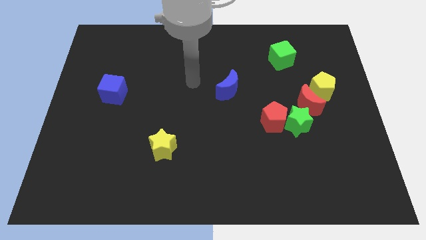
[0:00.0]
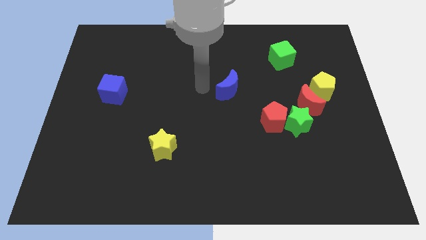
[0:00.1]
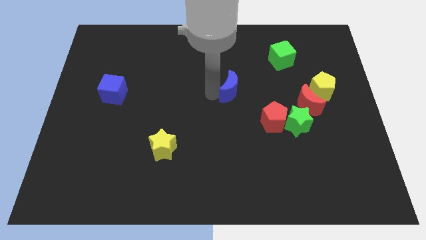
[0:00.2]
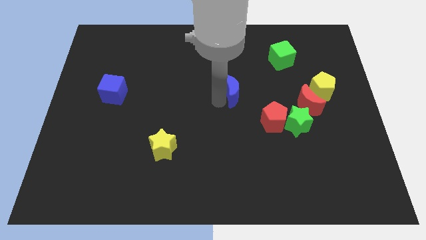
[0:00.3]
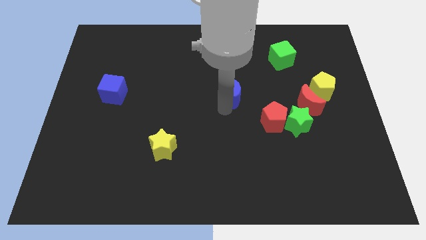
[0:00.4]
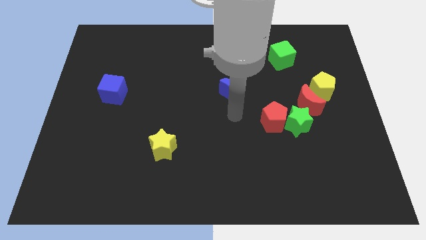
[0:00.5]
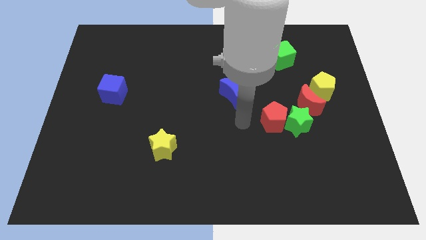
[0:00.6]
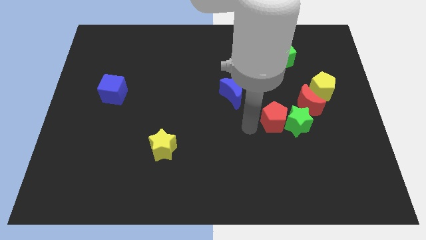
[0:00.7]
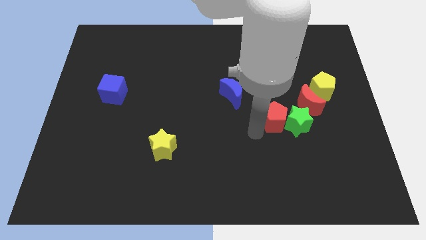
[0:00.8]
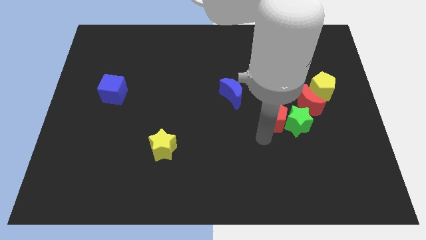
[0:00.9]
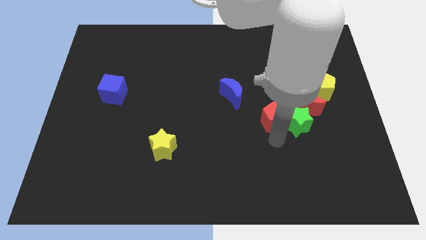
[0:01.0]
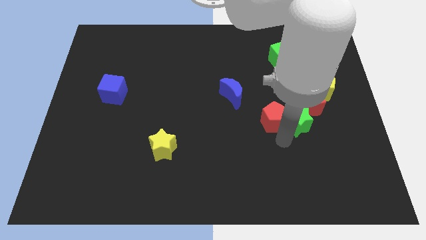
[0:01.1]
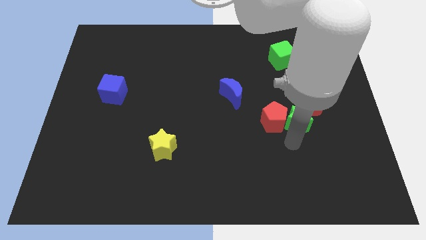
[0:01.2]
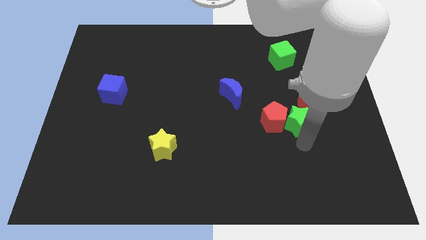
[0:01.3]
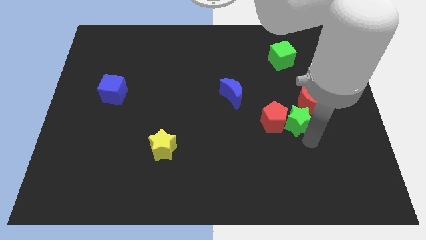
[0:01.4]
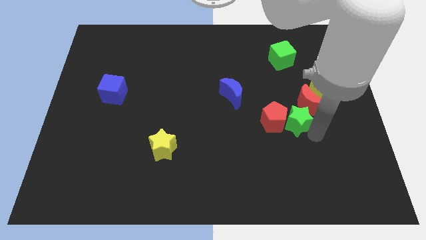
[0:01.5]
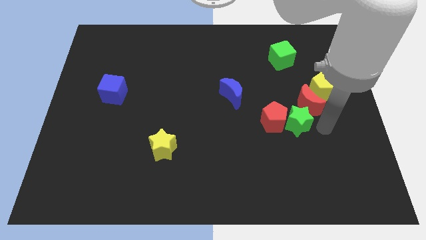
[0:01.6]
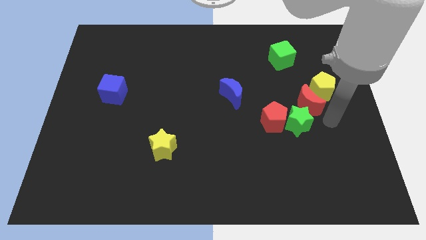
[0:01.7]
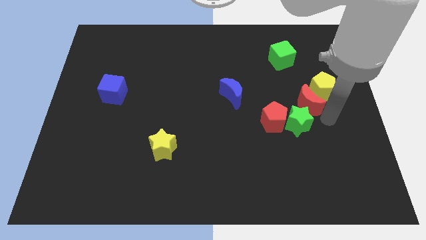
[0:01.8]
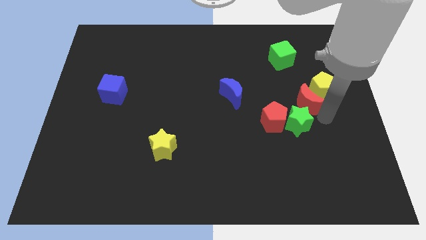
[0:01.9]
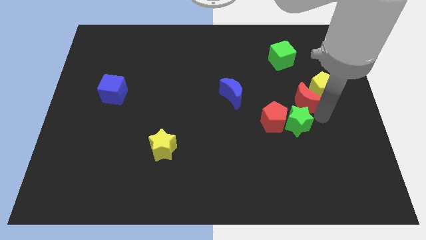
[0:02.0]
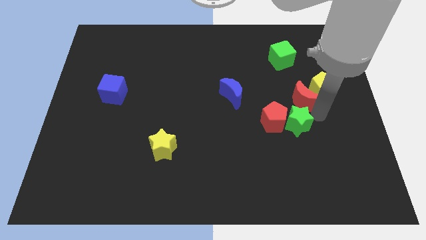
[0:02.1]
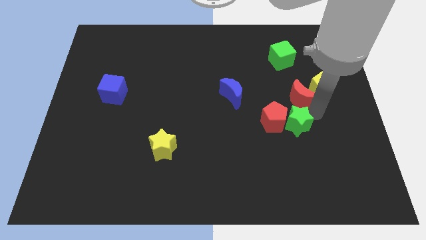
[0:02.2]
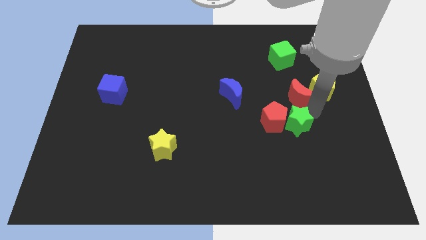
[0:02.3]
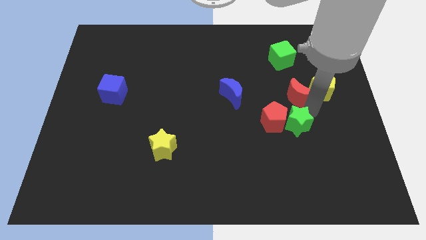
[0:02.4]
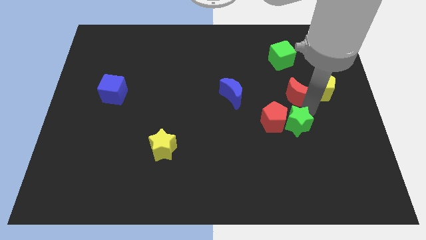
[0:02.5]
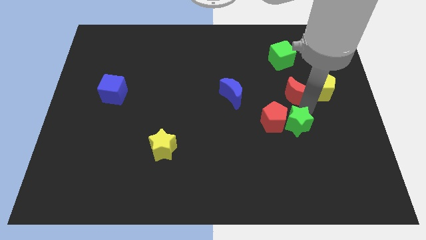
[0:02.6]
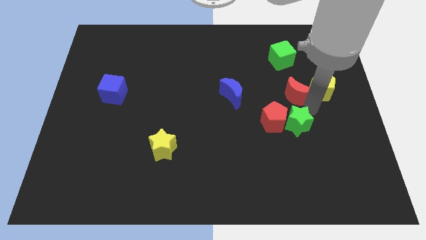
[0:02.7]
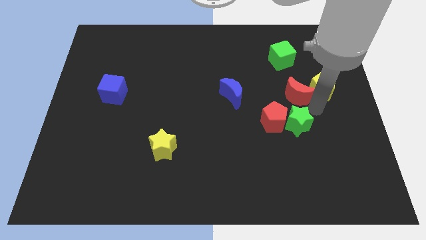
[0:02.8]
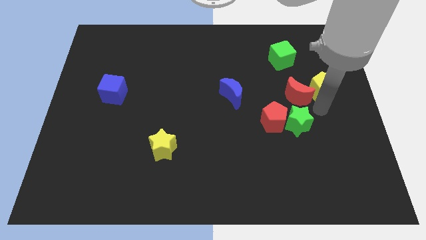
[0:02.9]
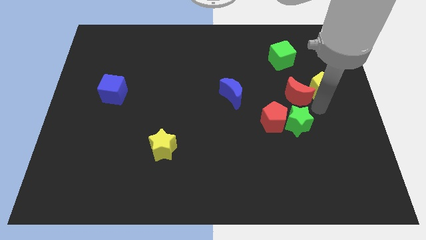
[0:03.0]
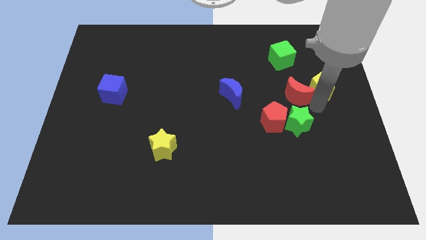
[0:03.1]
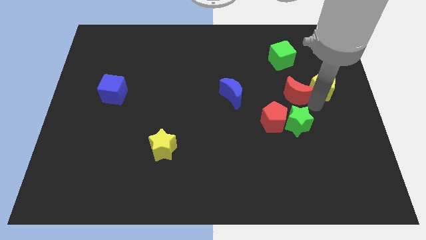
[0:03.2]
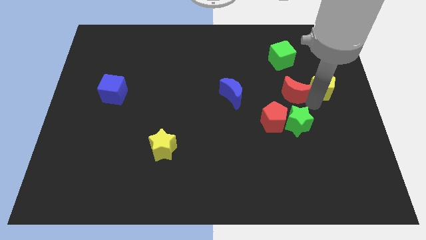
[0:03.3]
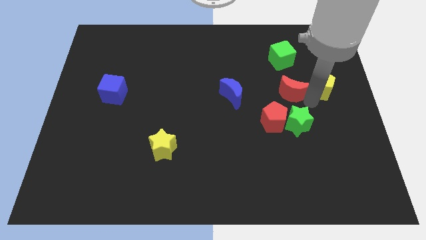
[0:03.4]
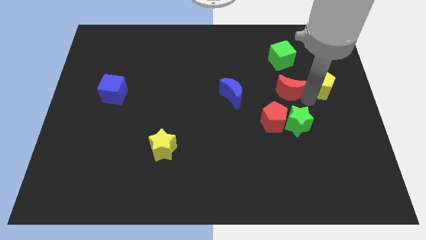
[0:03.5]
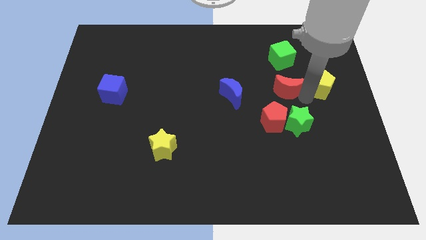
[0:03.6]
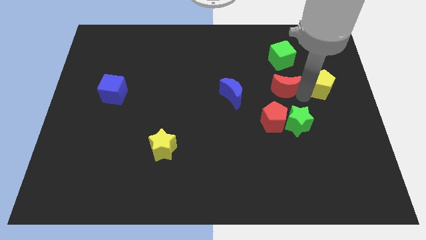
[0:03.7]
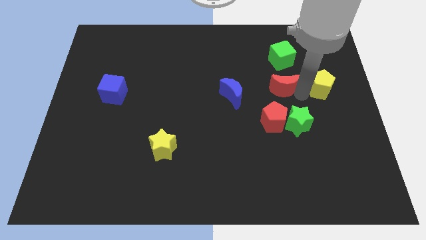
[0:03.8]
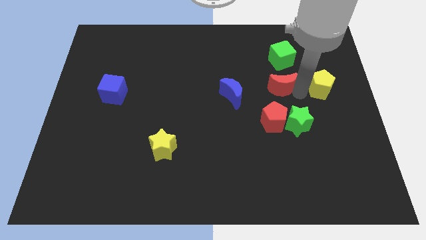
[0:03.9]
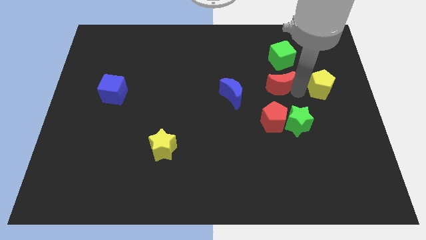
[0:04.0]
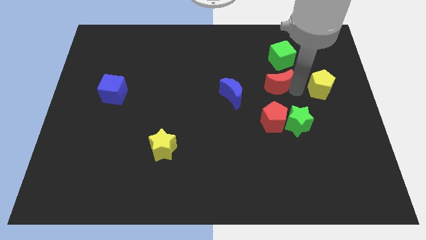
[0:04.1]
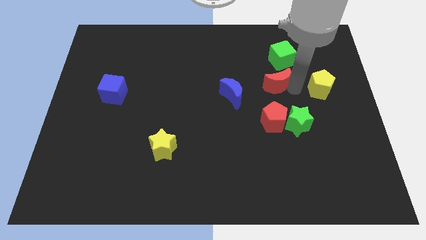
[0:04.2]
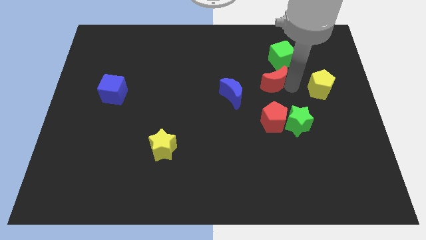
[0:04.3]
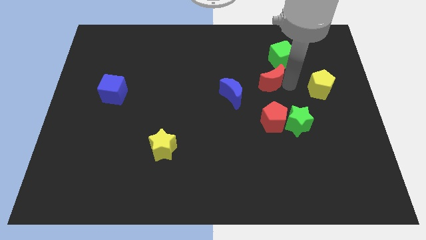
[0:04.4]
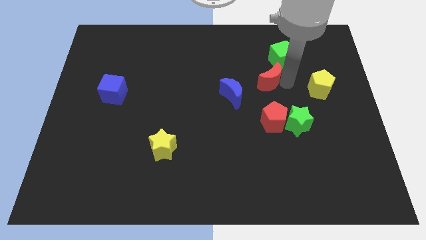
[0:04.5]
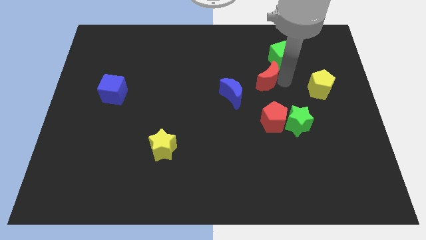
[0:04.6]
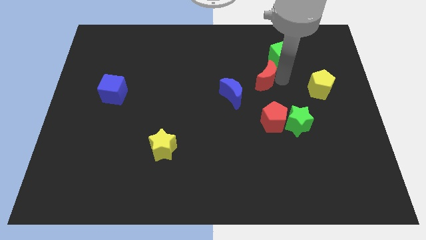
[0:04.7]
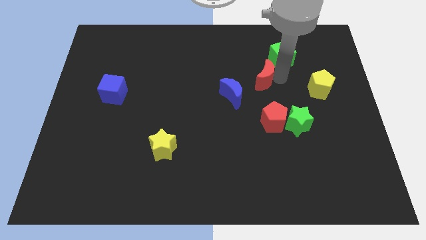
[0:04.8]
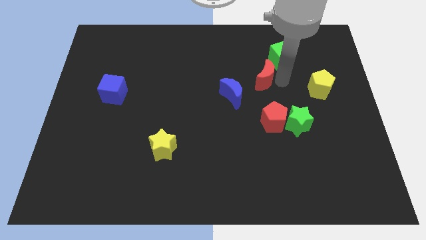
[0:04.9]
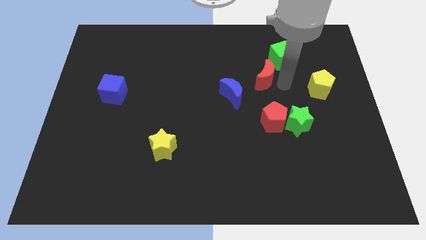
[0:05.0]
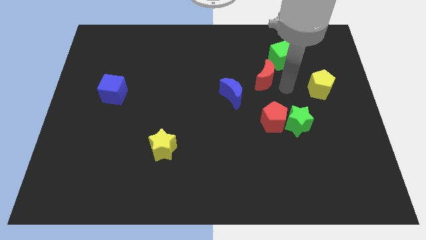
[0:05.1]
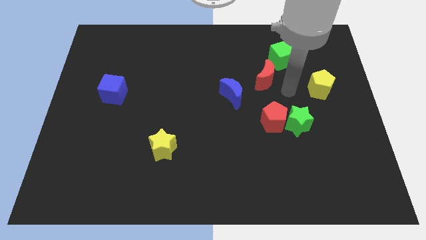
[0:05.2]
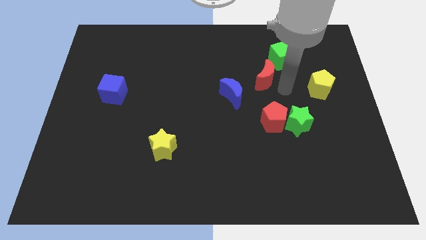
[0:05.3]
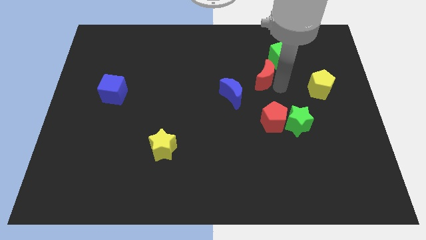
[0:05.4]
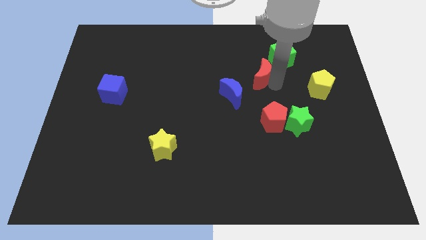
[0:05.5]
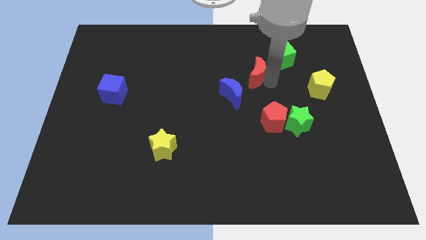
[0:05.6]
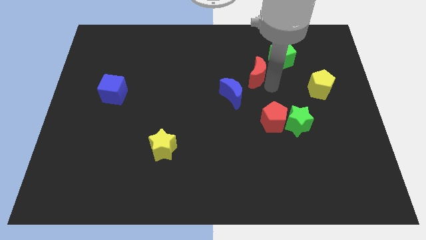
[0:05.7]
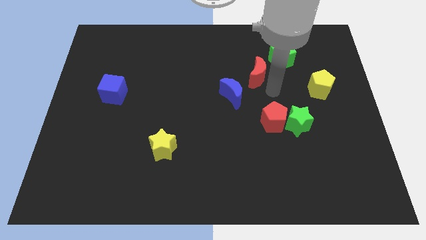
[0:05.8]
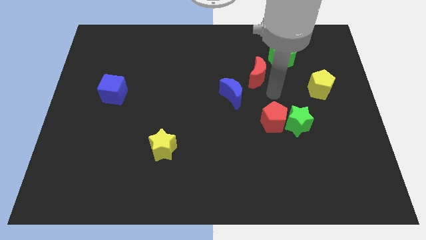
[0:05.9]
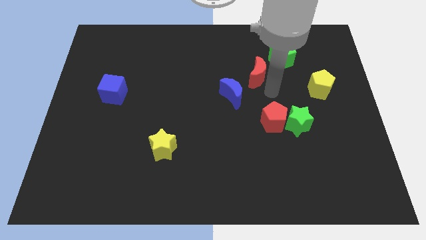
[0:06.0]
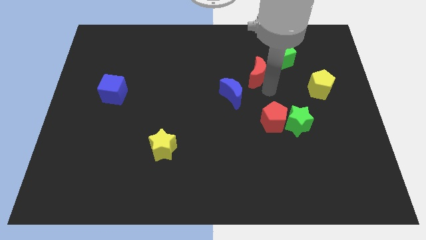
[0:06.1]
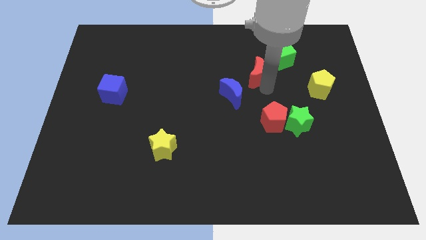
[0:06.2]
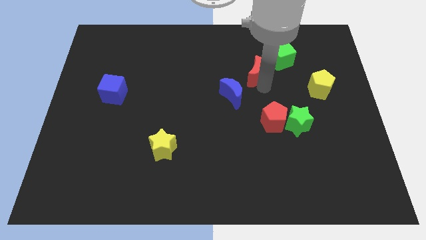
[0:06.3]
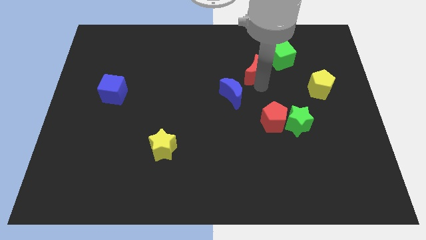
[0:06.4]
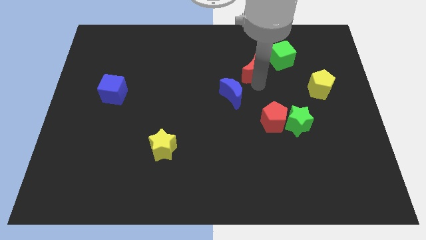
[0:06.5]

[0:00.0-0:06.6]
push the red moon just left of the green cube
